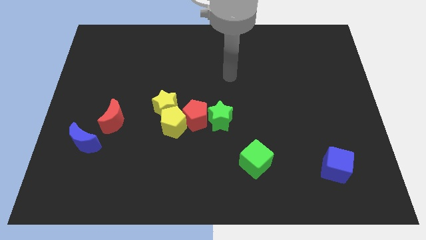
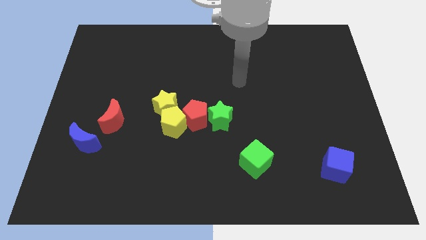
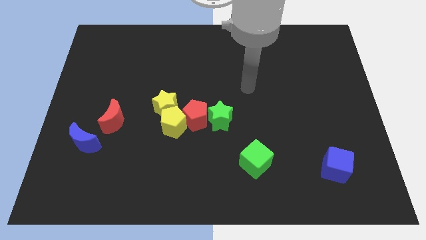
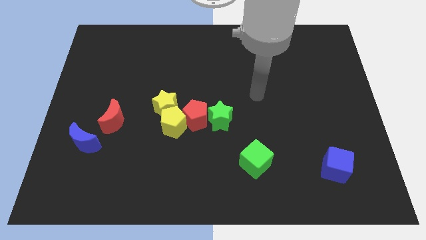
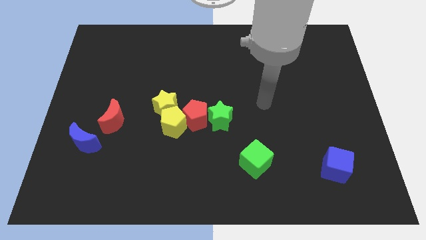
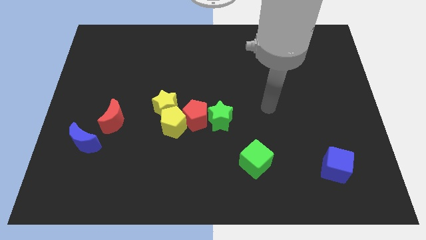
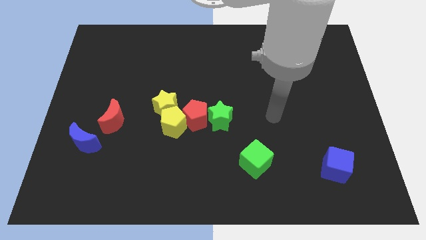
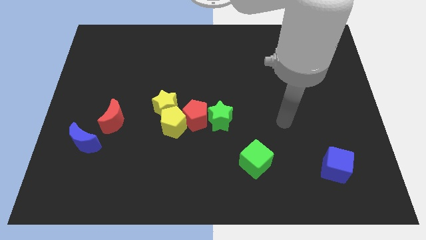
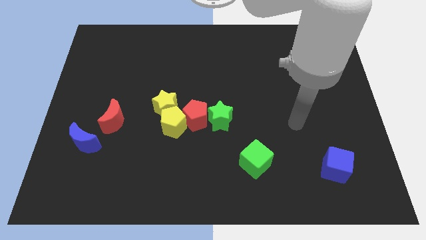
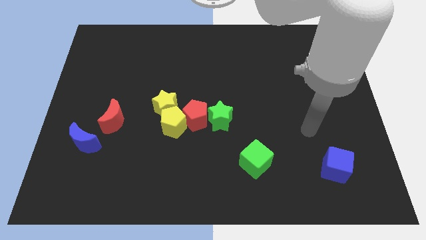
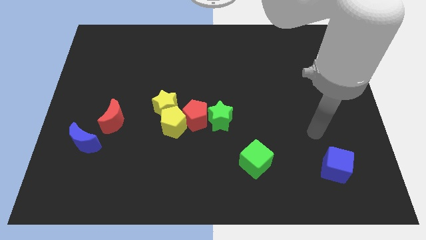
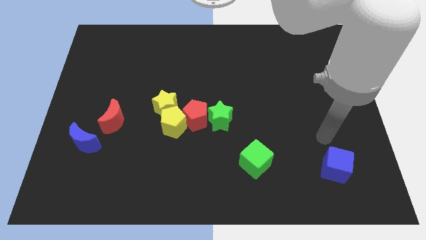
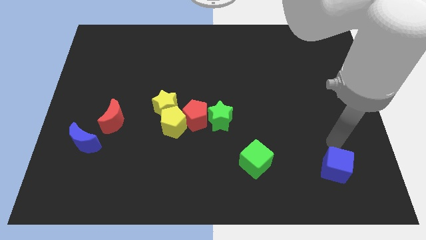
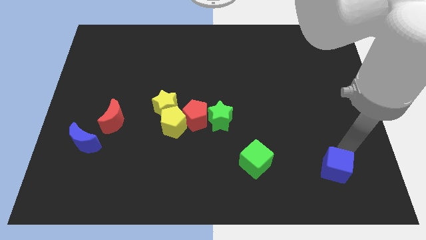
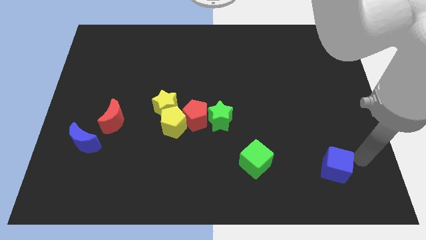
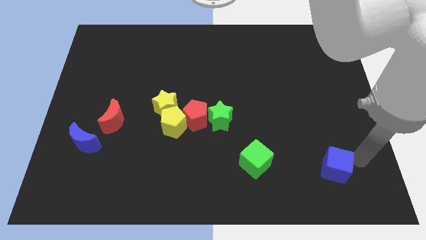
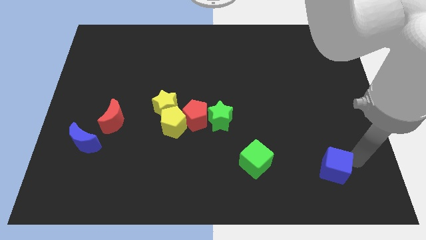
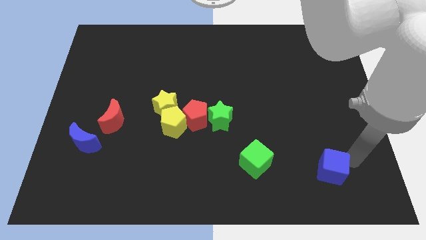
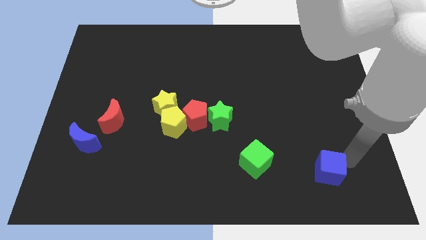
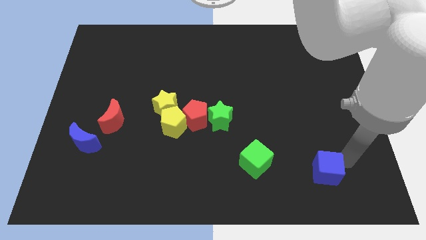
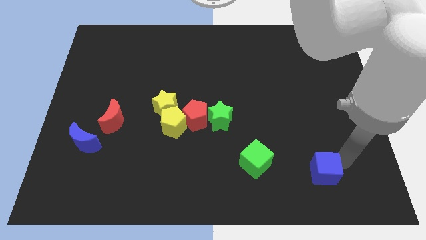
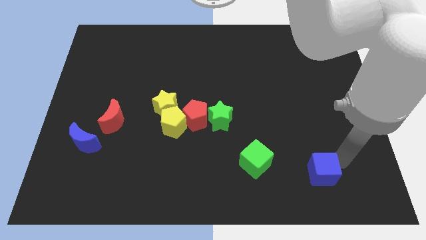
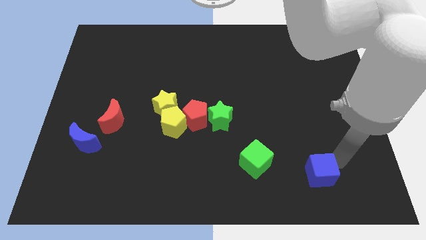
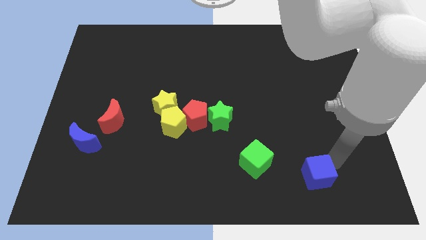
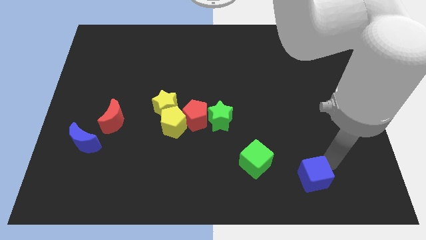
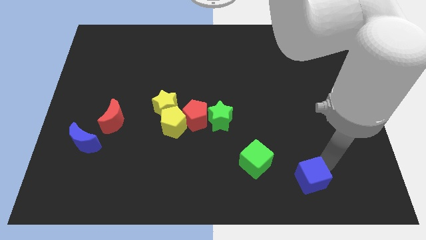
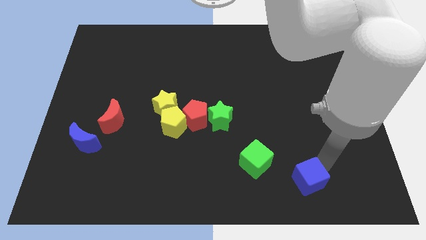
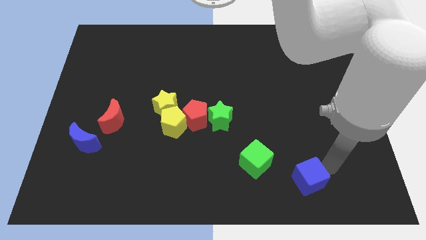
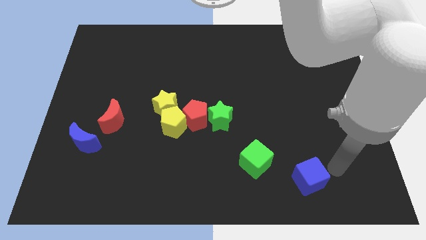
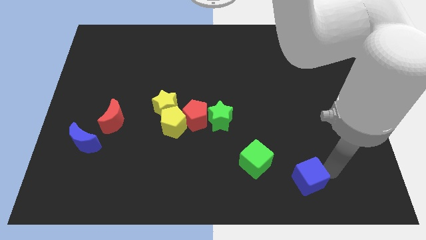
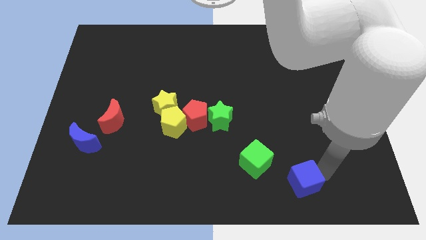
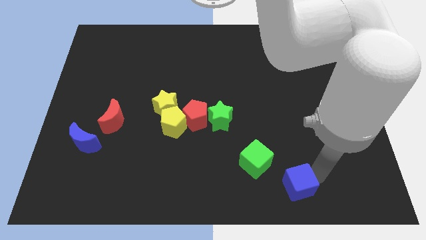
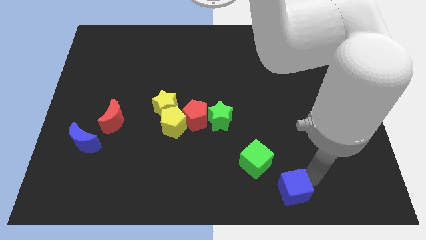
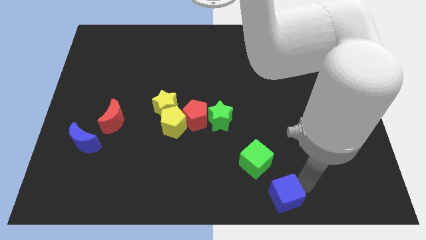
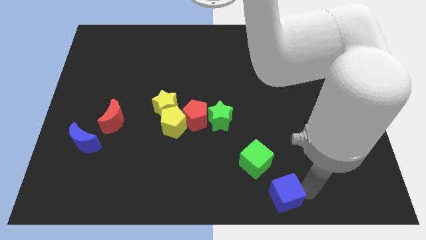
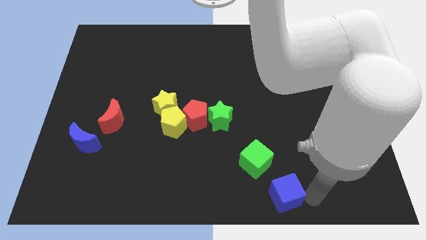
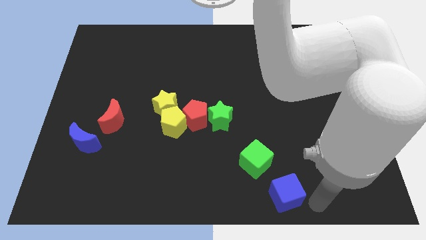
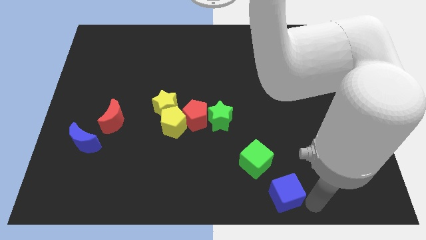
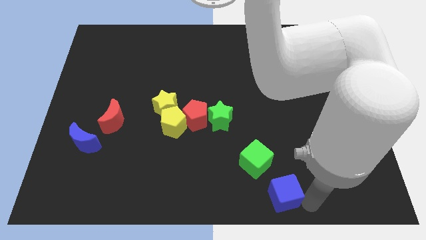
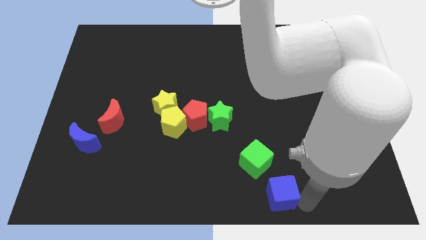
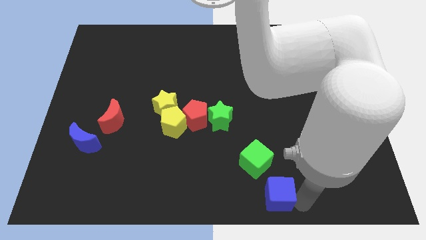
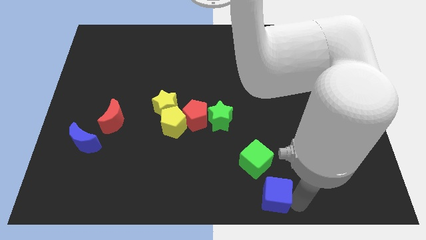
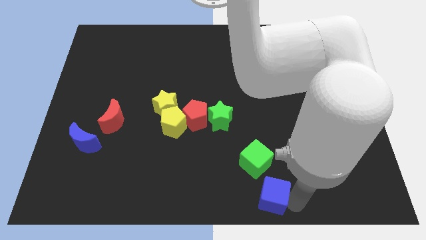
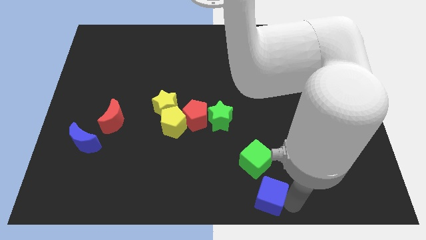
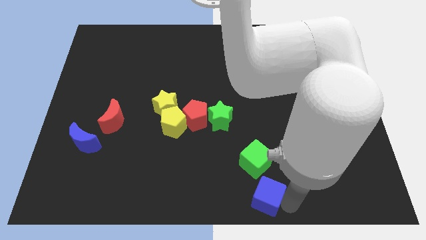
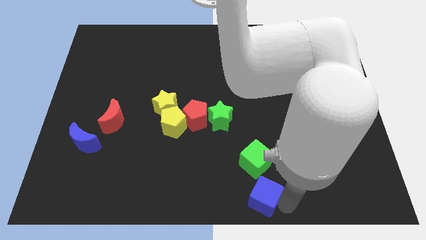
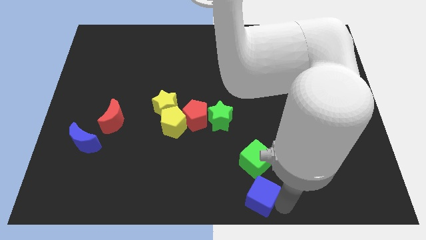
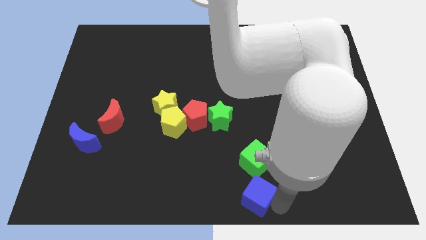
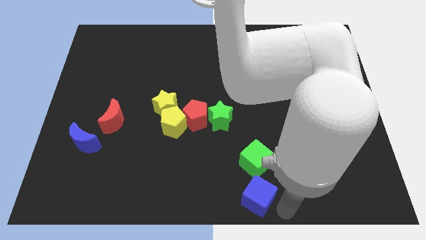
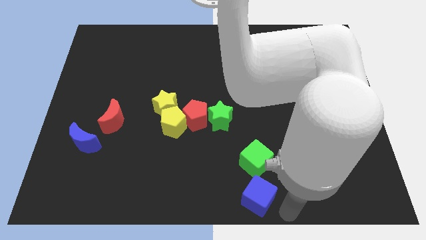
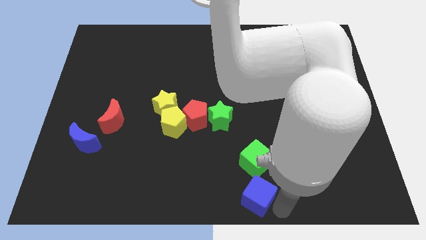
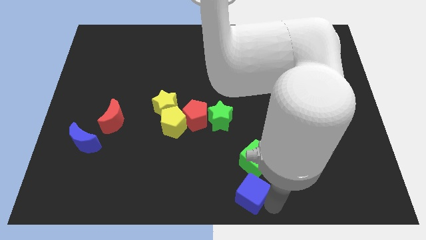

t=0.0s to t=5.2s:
move the blue cube diagonally down and to the left of the green cube

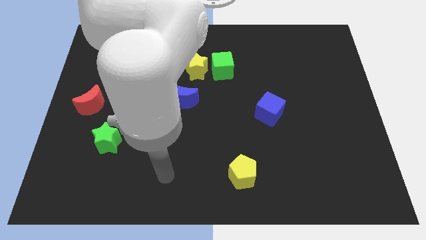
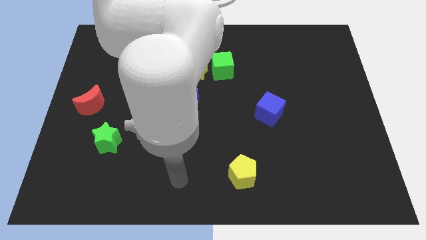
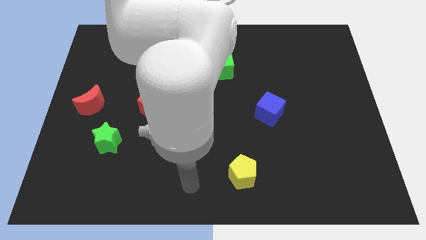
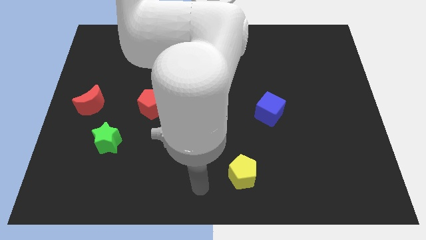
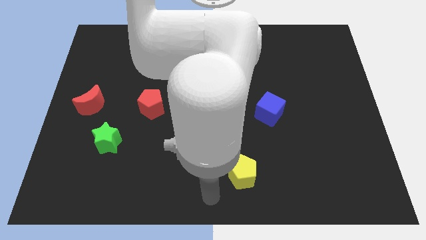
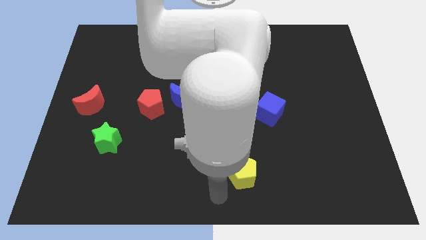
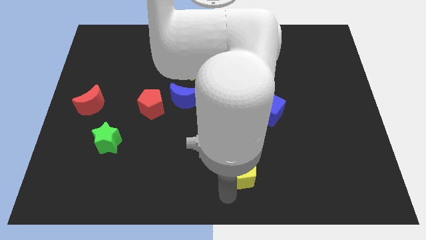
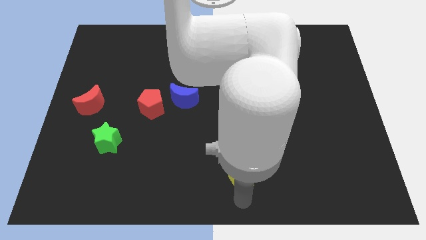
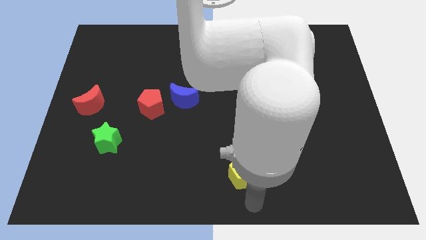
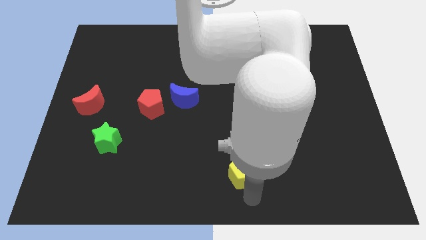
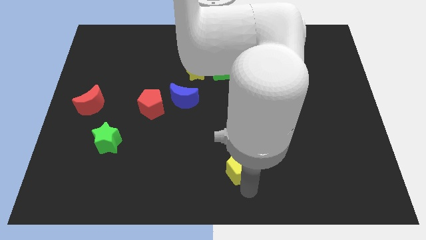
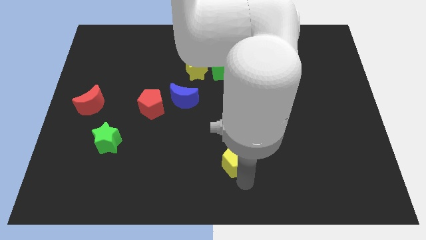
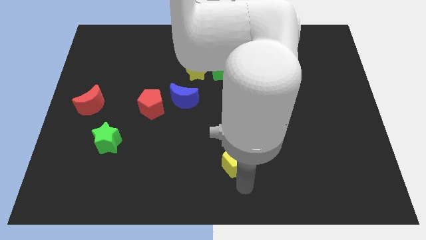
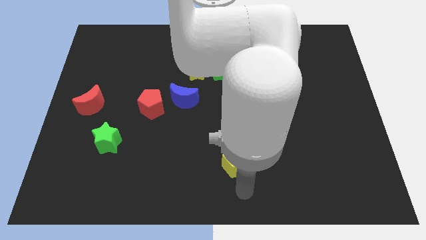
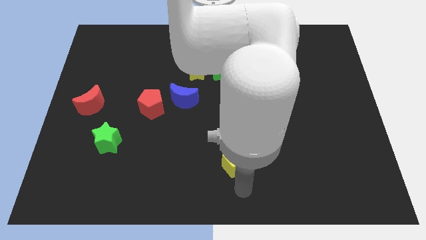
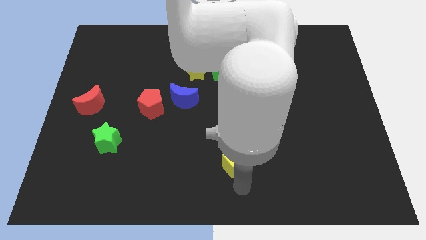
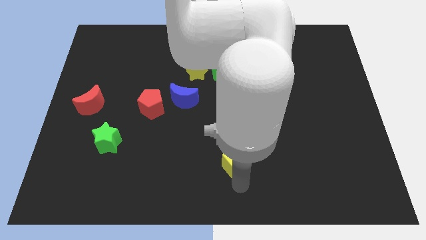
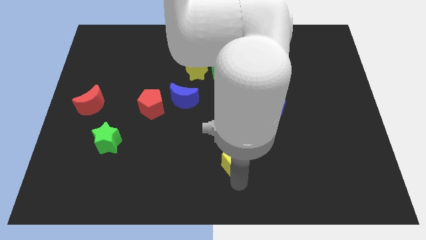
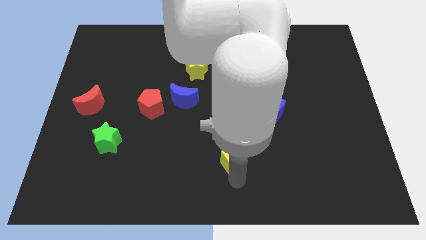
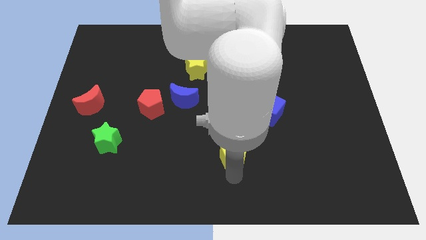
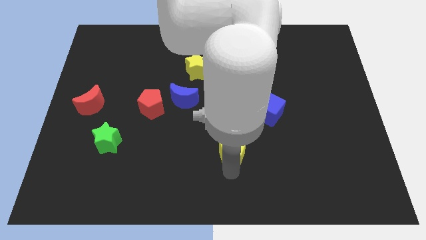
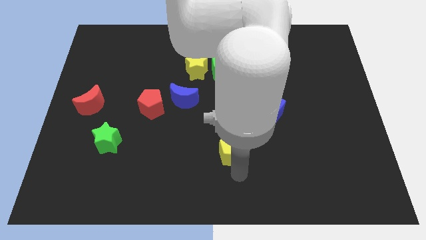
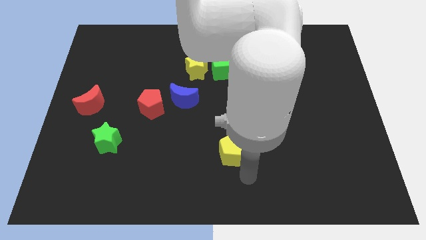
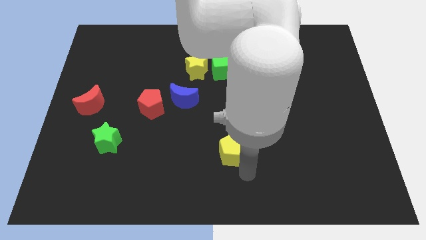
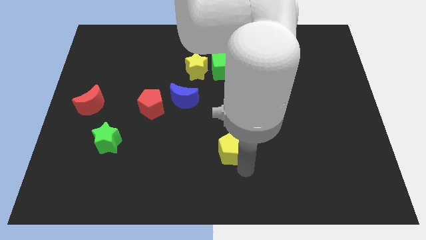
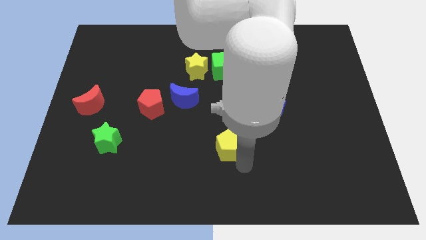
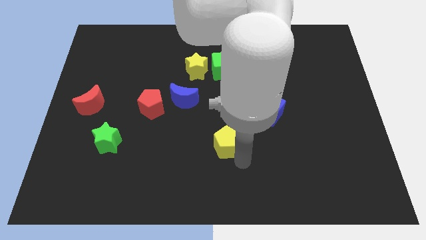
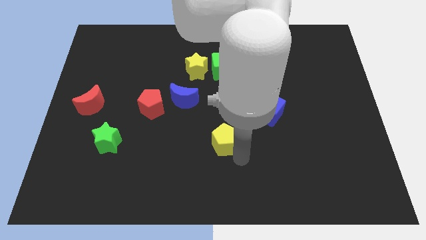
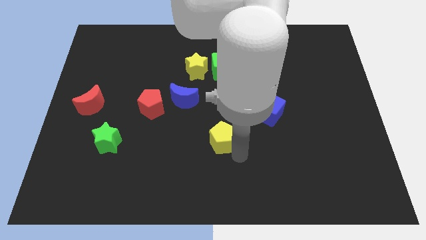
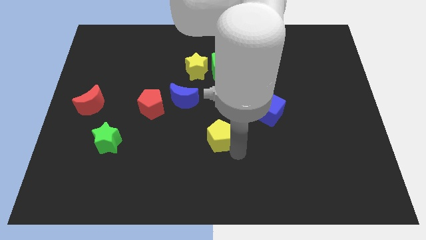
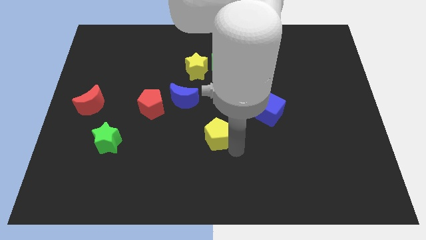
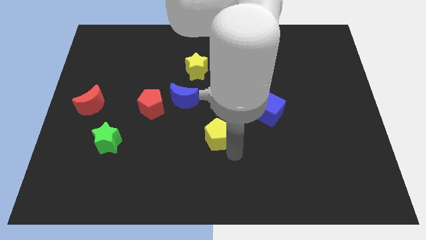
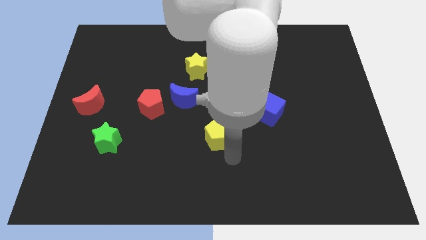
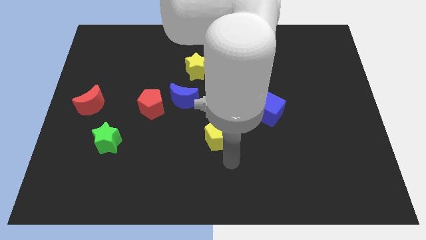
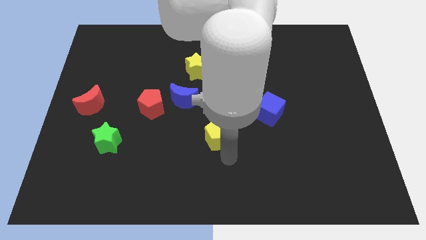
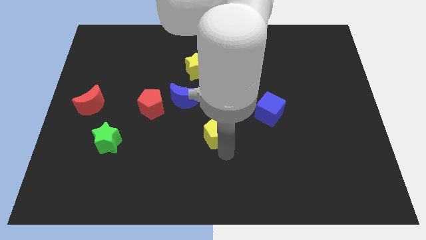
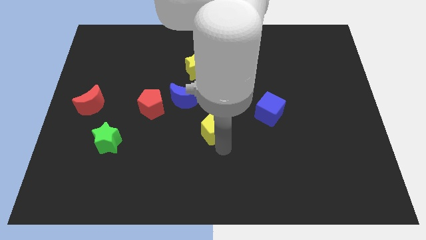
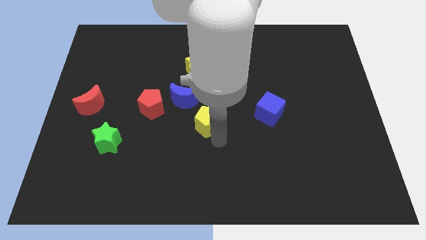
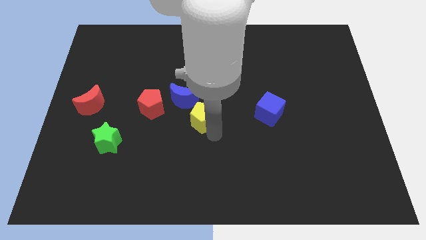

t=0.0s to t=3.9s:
move the yellow pentagon to the bottom of the yellow star
